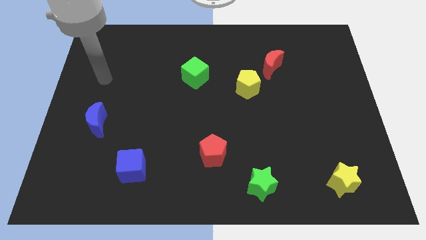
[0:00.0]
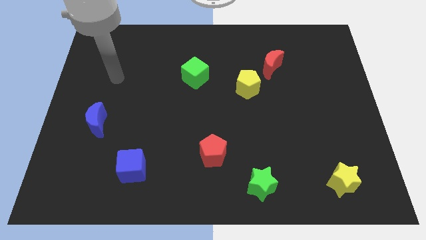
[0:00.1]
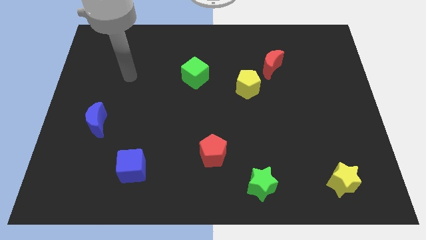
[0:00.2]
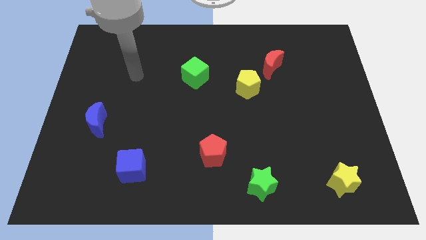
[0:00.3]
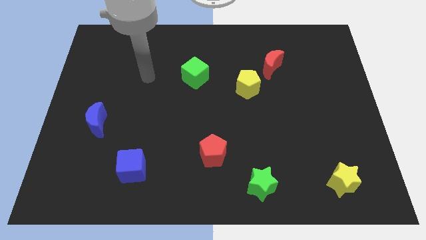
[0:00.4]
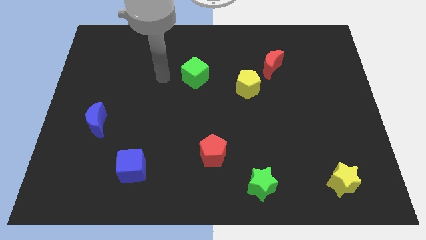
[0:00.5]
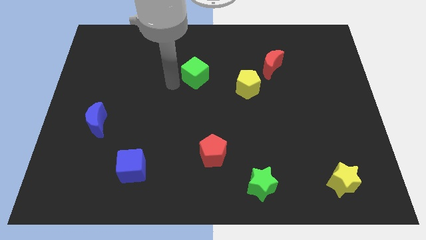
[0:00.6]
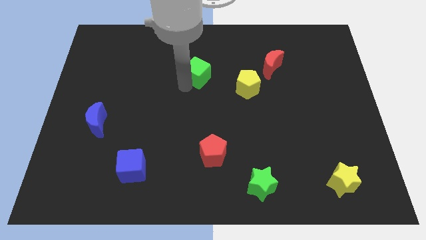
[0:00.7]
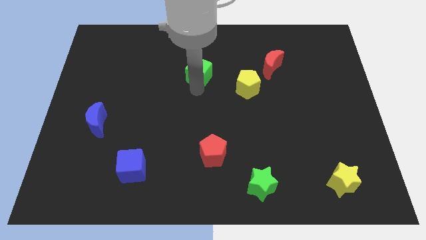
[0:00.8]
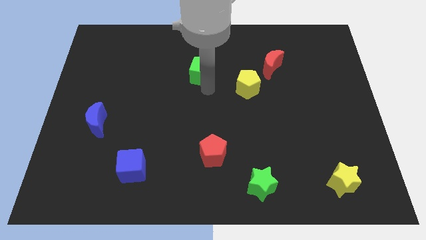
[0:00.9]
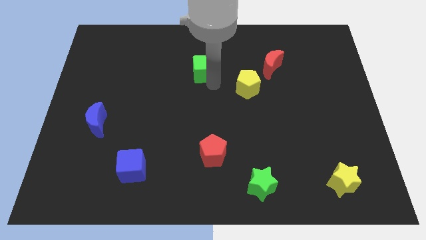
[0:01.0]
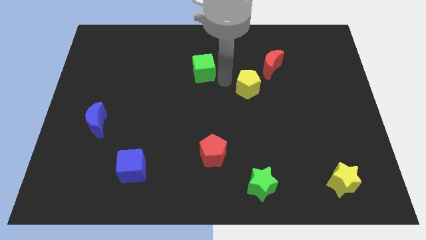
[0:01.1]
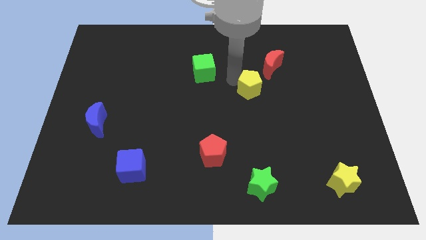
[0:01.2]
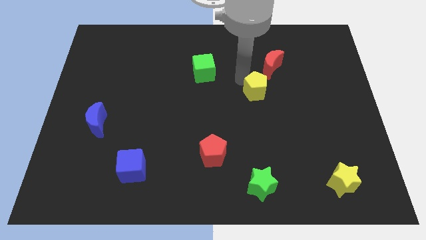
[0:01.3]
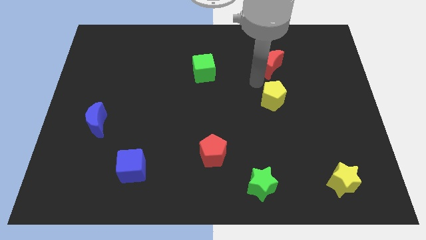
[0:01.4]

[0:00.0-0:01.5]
move the red moon away from the yellow pentagon

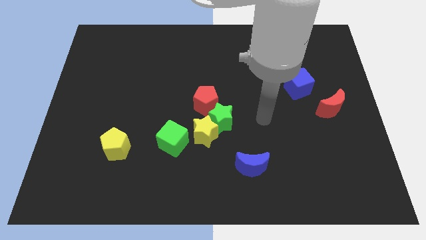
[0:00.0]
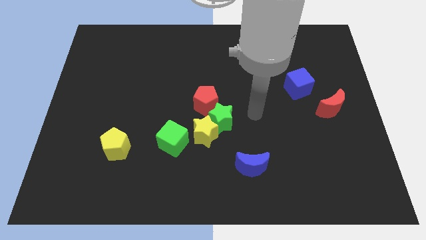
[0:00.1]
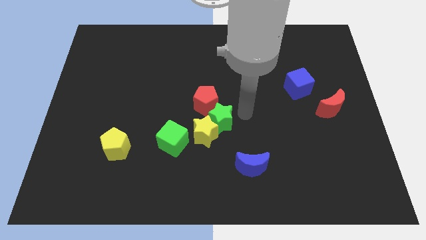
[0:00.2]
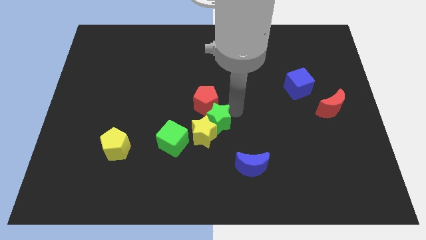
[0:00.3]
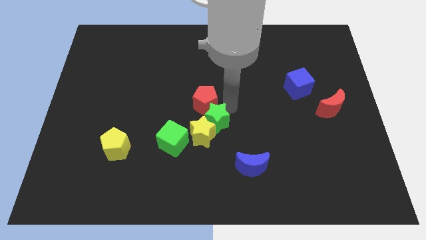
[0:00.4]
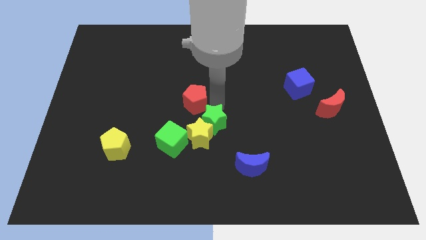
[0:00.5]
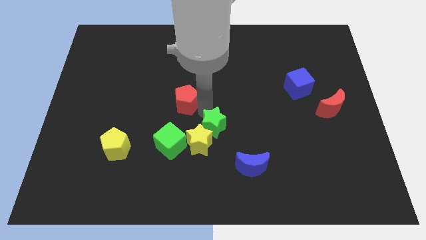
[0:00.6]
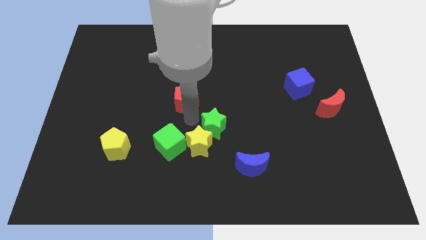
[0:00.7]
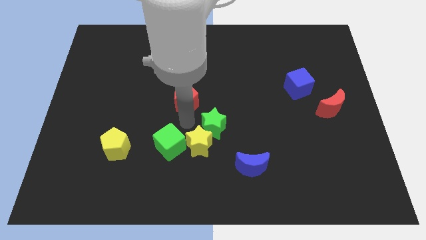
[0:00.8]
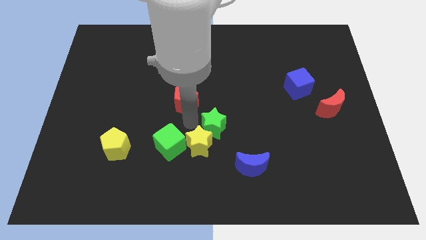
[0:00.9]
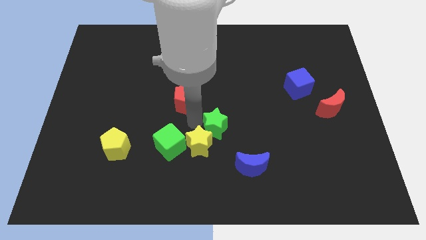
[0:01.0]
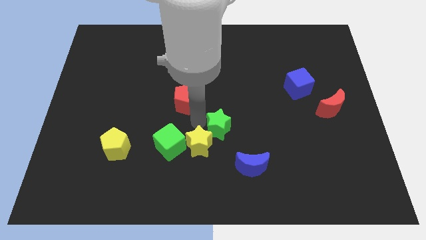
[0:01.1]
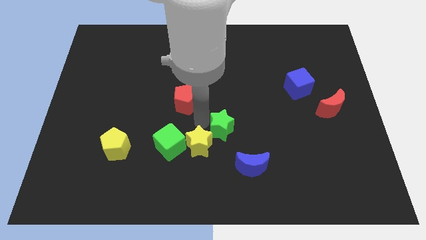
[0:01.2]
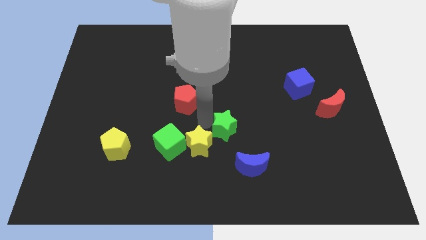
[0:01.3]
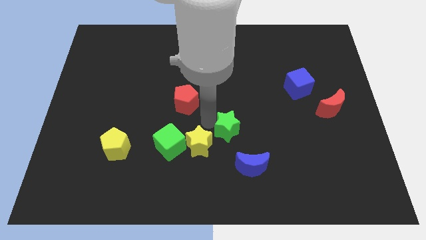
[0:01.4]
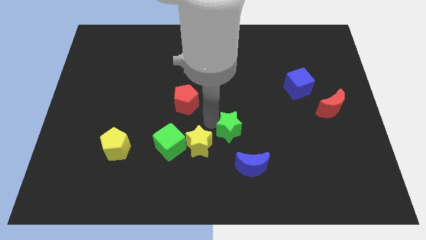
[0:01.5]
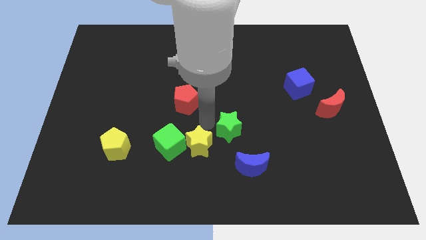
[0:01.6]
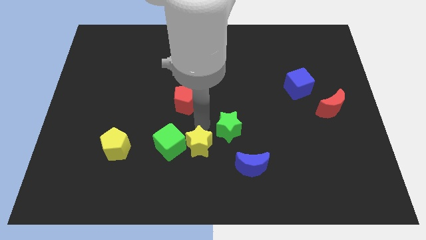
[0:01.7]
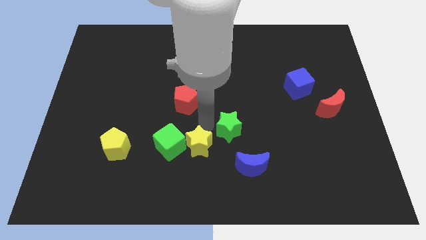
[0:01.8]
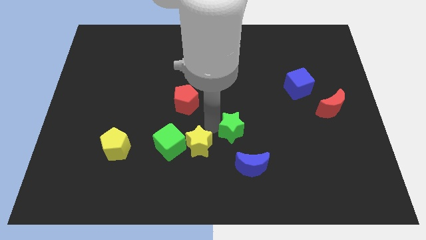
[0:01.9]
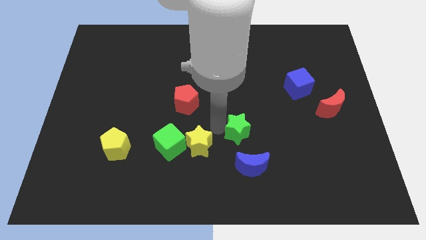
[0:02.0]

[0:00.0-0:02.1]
separate the green star from the yellow star and red pentagon

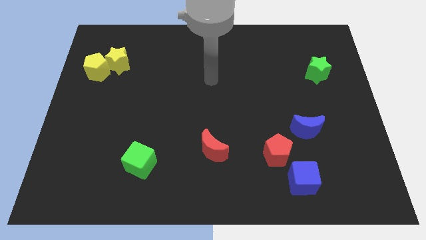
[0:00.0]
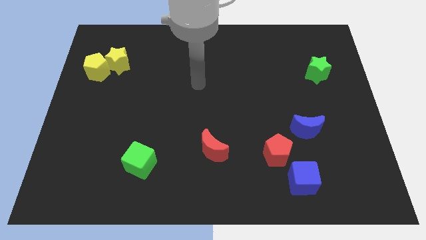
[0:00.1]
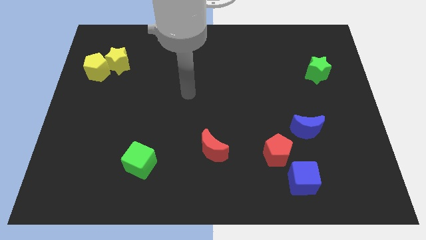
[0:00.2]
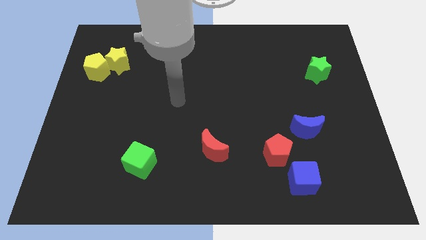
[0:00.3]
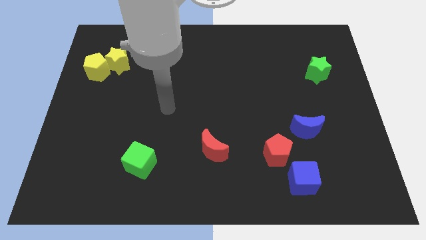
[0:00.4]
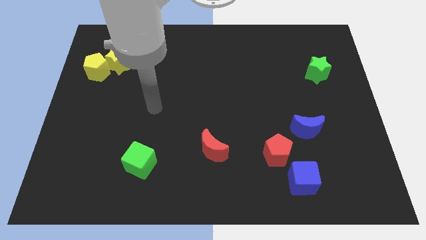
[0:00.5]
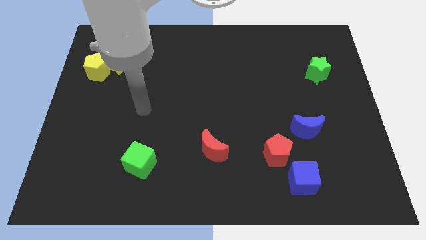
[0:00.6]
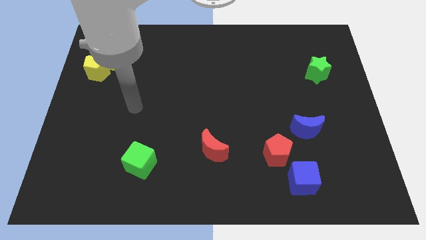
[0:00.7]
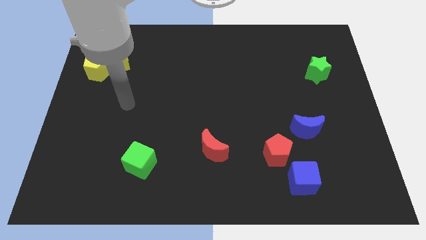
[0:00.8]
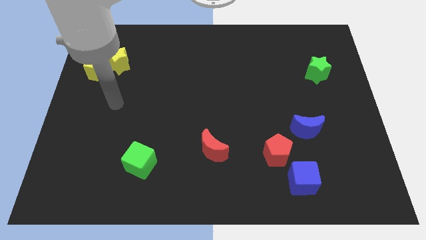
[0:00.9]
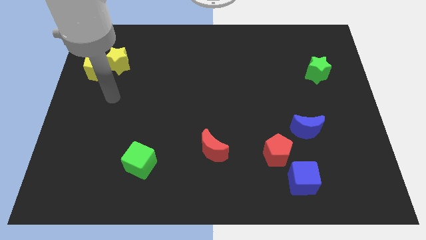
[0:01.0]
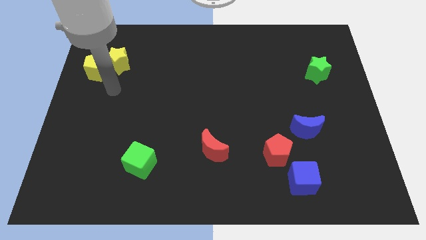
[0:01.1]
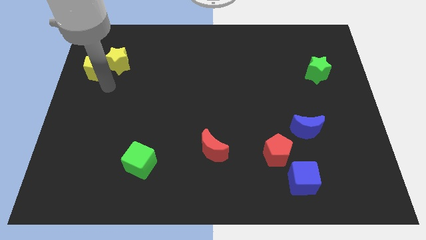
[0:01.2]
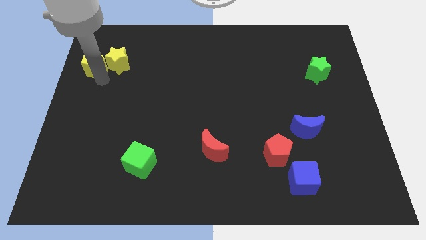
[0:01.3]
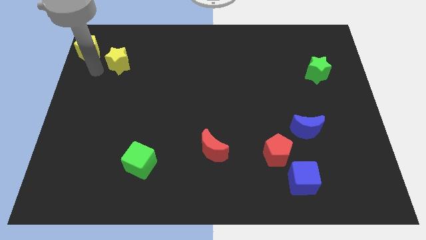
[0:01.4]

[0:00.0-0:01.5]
move the yellow star away from the yellow pentagon

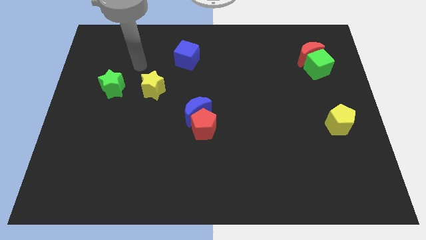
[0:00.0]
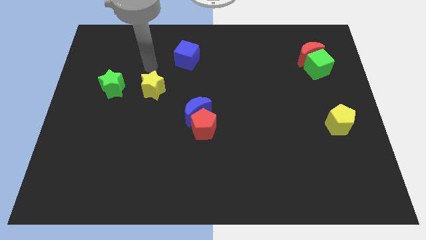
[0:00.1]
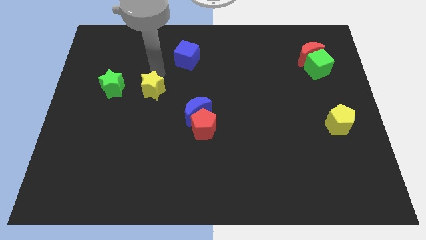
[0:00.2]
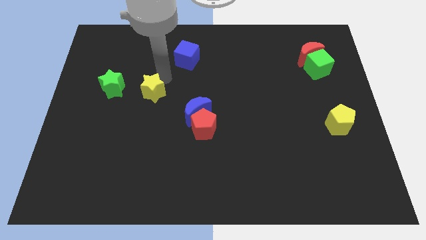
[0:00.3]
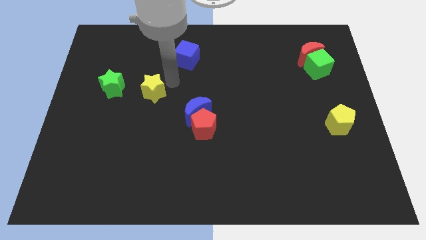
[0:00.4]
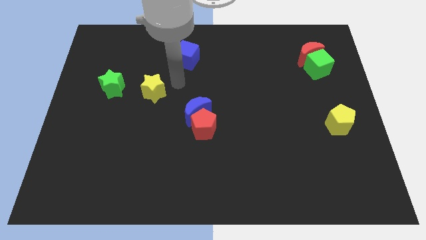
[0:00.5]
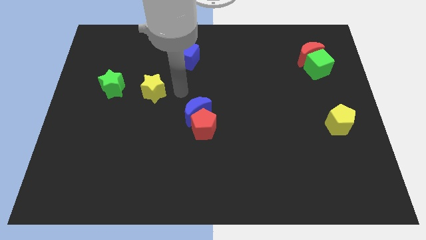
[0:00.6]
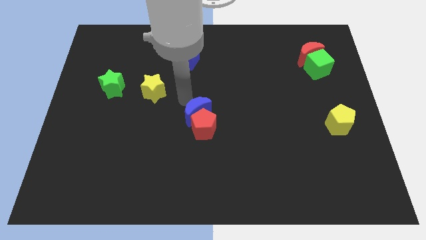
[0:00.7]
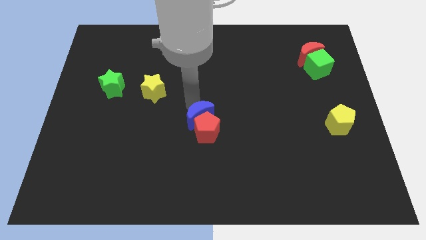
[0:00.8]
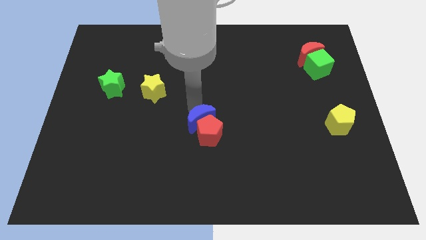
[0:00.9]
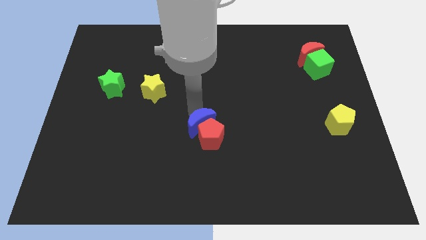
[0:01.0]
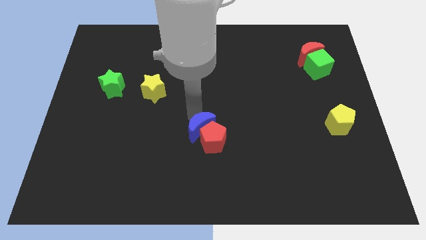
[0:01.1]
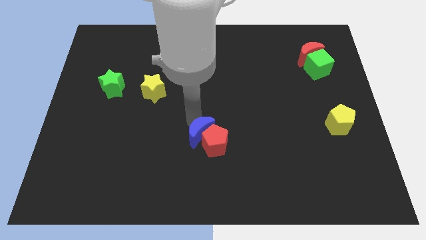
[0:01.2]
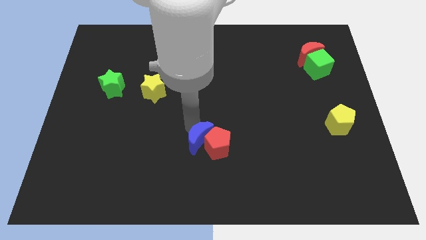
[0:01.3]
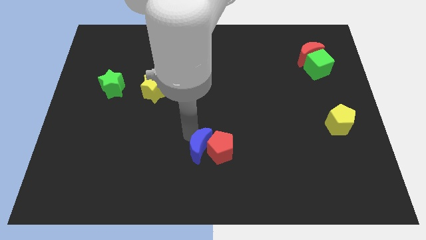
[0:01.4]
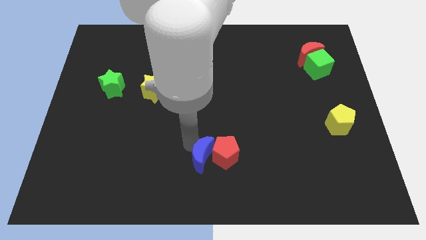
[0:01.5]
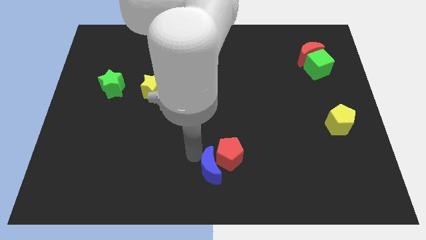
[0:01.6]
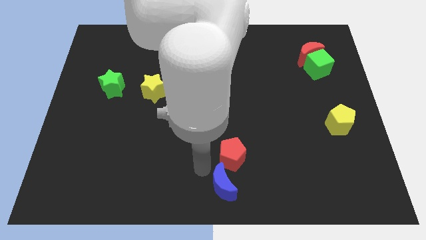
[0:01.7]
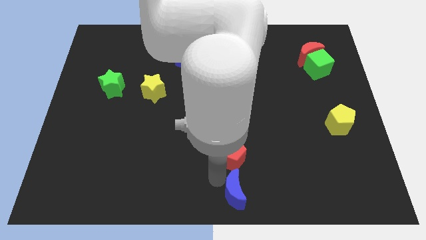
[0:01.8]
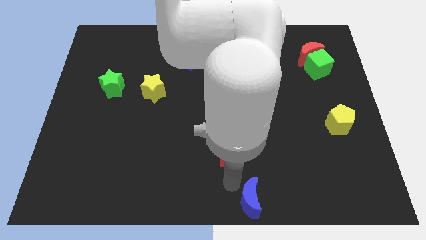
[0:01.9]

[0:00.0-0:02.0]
move the red pentagon away from the blue moon

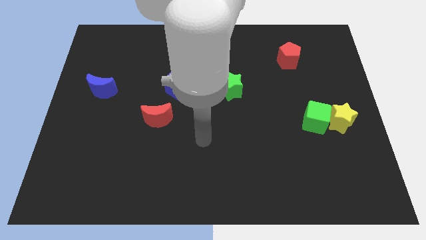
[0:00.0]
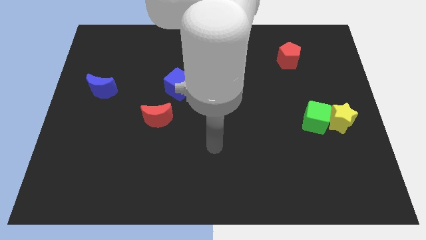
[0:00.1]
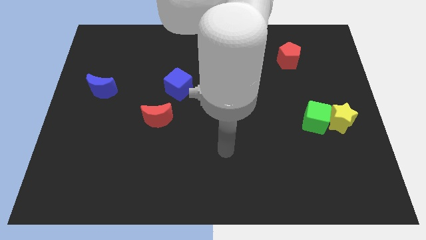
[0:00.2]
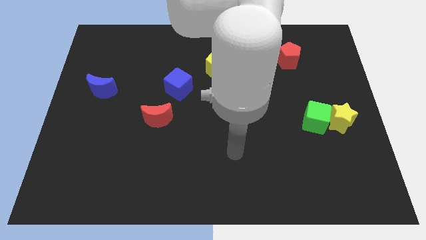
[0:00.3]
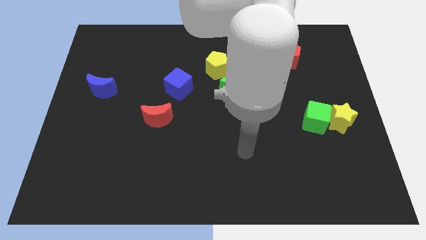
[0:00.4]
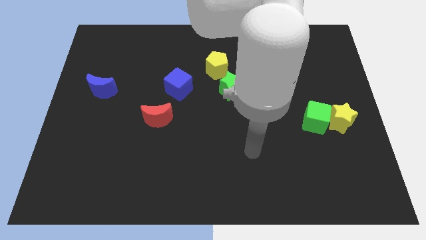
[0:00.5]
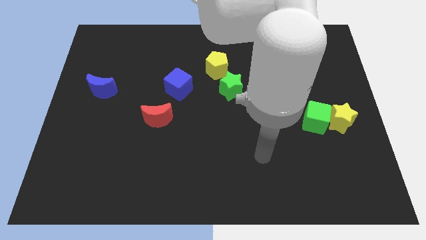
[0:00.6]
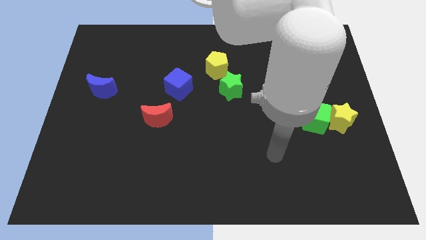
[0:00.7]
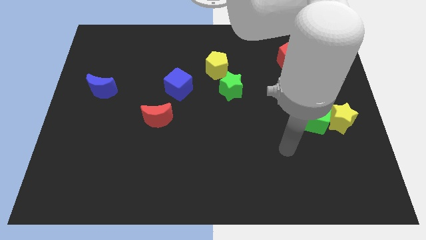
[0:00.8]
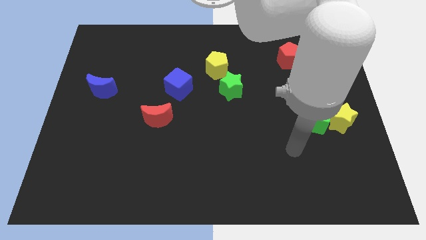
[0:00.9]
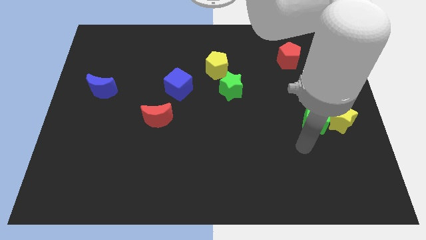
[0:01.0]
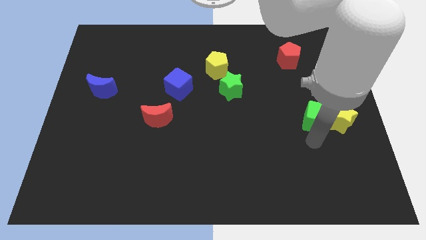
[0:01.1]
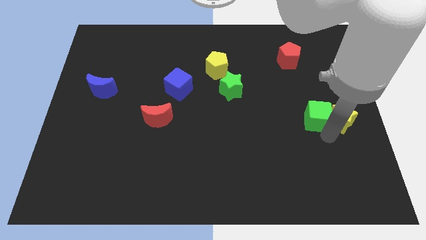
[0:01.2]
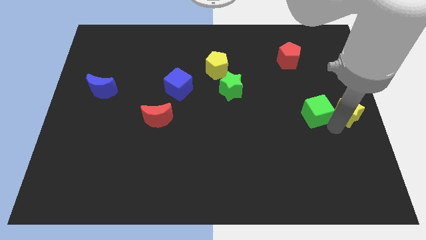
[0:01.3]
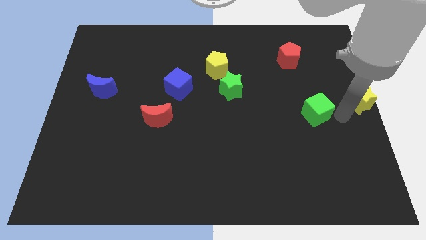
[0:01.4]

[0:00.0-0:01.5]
pull the green cube apart from the yellow star

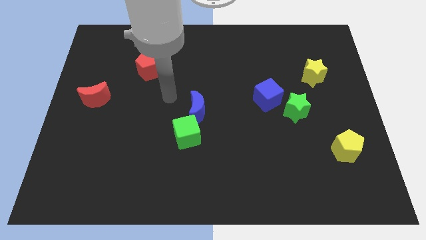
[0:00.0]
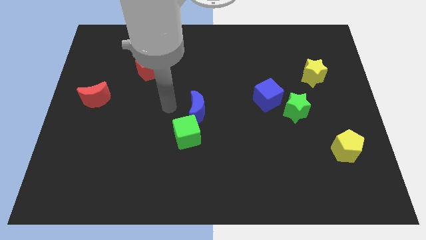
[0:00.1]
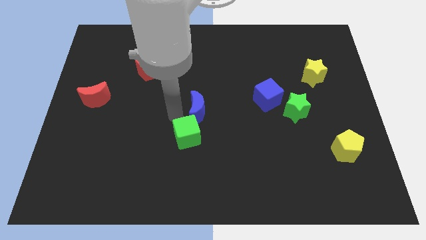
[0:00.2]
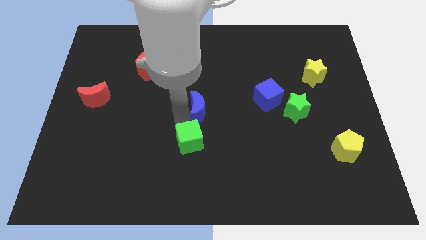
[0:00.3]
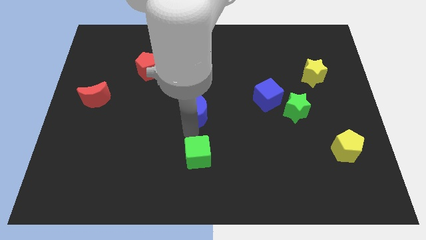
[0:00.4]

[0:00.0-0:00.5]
separate the blue moon from the green cube
